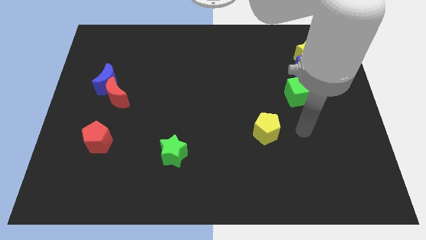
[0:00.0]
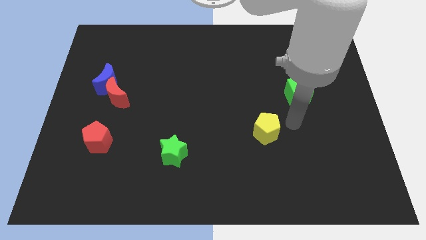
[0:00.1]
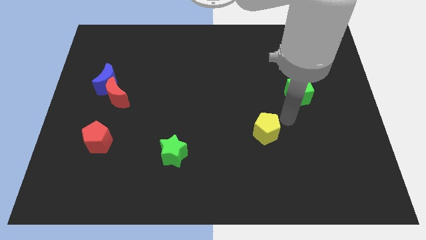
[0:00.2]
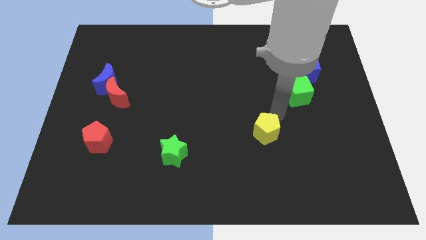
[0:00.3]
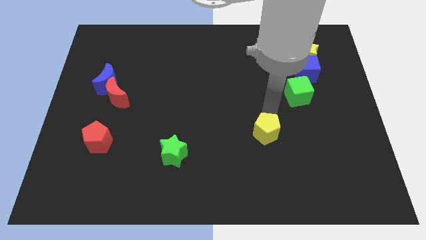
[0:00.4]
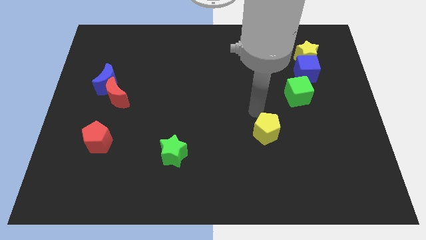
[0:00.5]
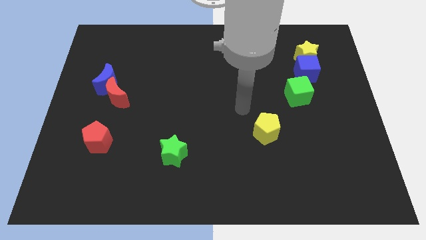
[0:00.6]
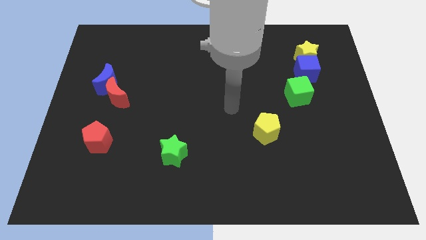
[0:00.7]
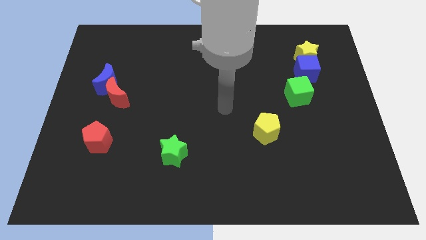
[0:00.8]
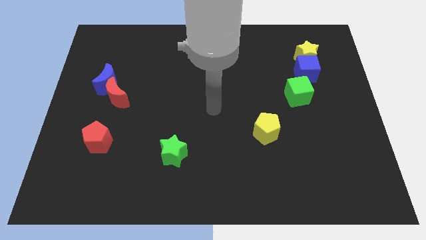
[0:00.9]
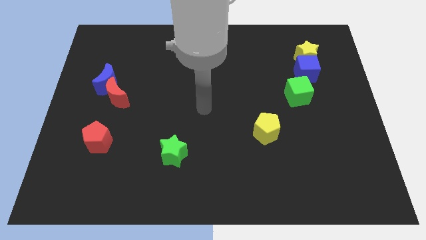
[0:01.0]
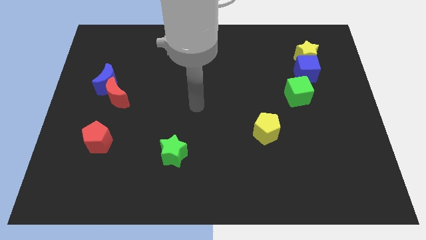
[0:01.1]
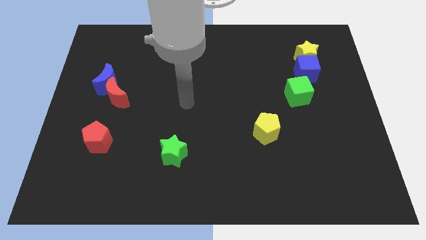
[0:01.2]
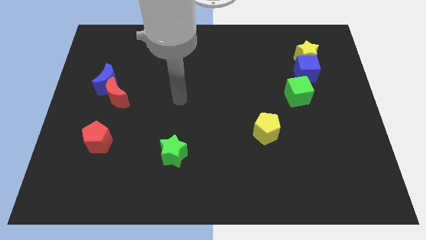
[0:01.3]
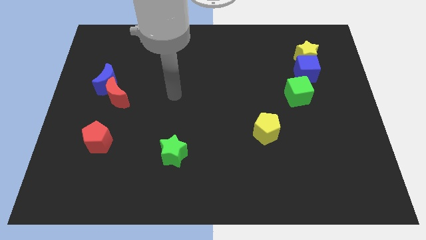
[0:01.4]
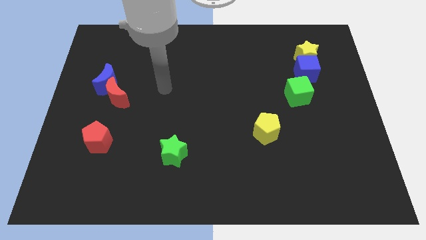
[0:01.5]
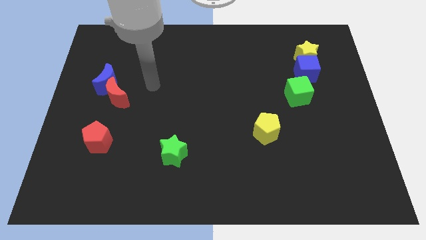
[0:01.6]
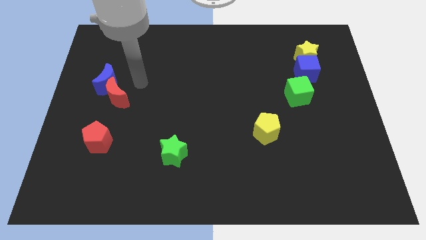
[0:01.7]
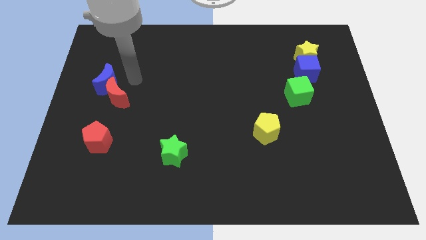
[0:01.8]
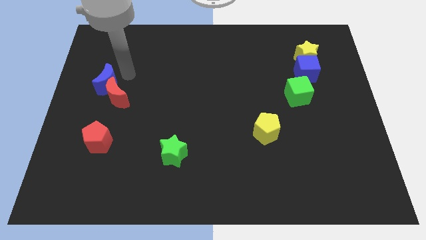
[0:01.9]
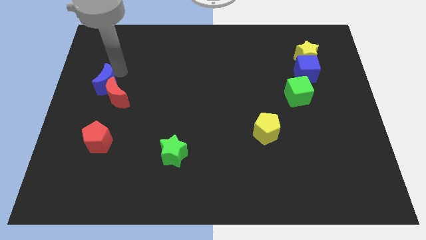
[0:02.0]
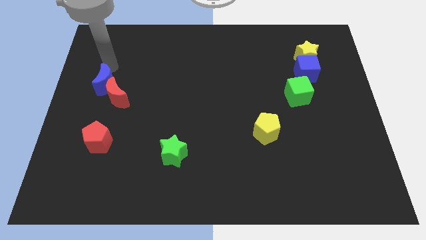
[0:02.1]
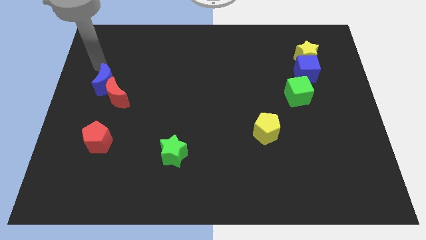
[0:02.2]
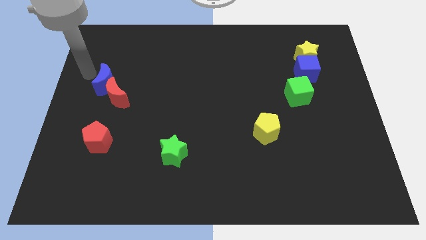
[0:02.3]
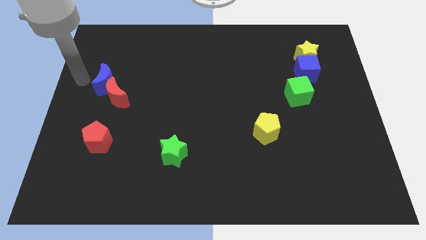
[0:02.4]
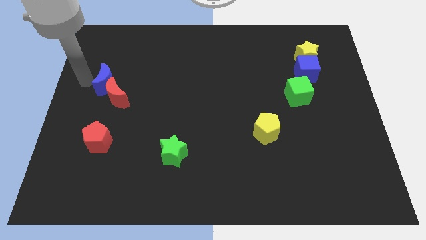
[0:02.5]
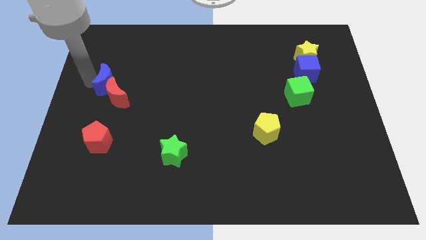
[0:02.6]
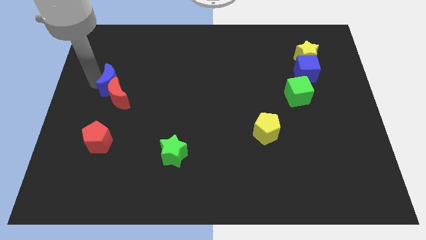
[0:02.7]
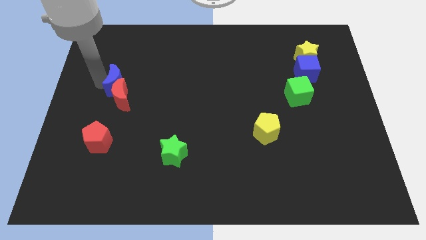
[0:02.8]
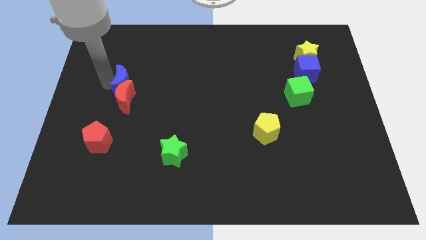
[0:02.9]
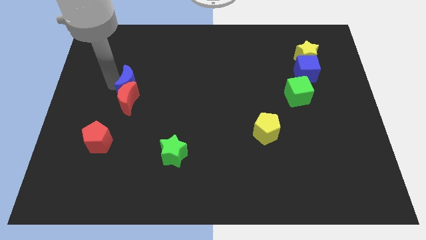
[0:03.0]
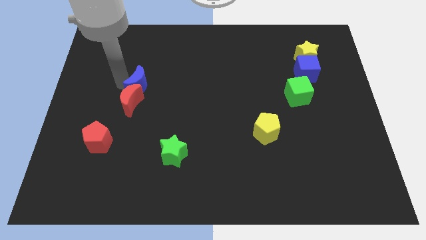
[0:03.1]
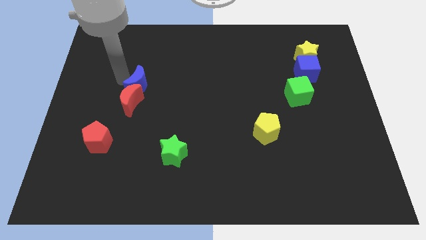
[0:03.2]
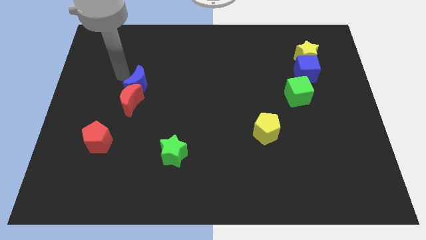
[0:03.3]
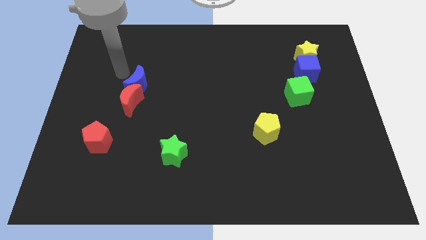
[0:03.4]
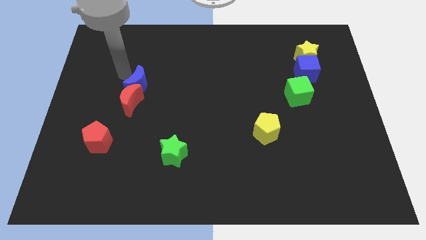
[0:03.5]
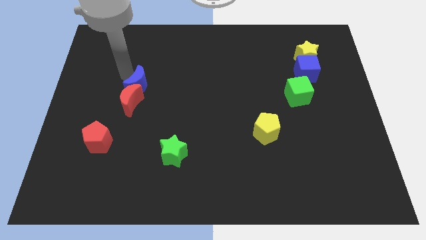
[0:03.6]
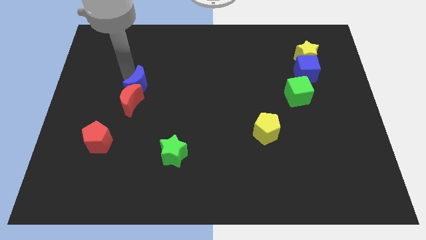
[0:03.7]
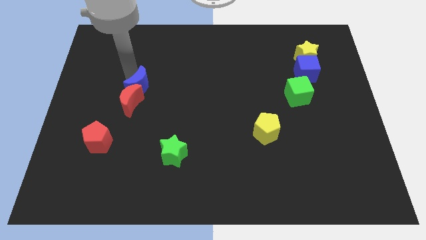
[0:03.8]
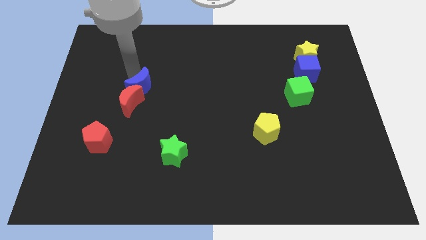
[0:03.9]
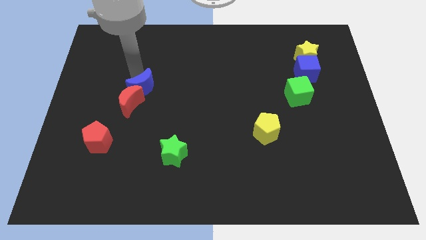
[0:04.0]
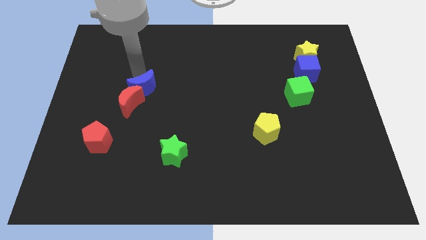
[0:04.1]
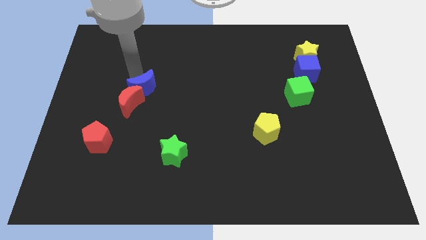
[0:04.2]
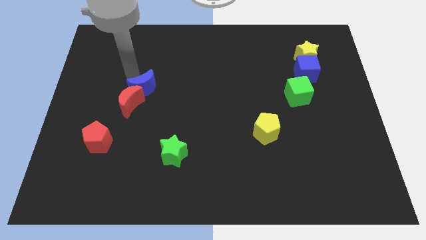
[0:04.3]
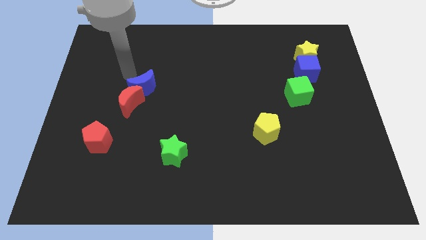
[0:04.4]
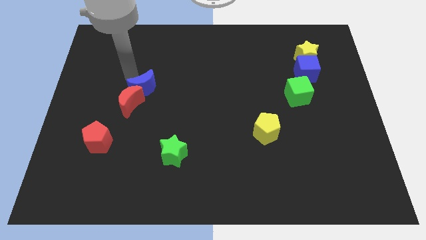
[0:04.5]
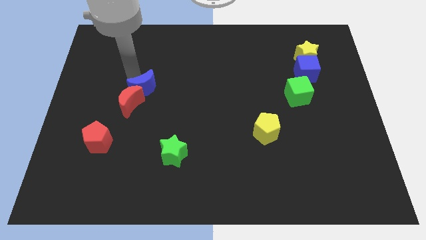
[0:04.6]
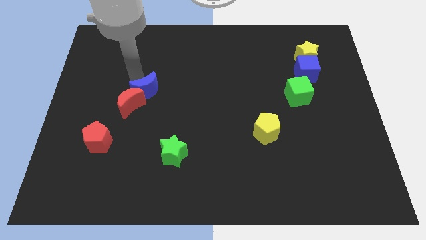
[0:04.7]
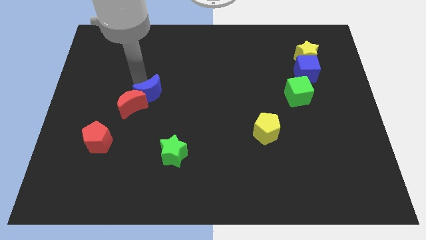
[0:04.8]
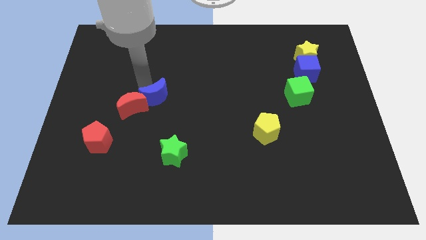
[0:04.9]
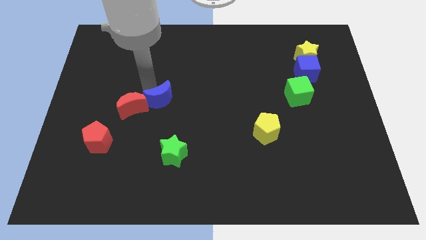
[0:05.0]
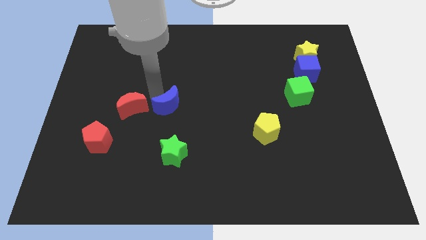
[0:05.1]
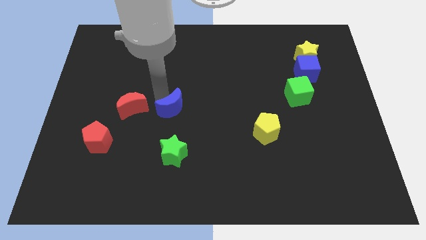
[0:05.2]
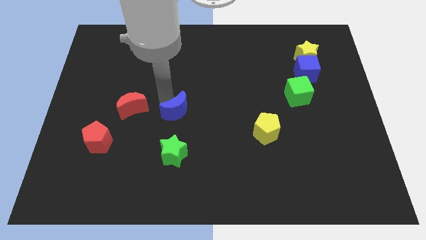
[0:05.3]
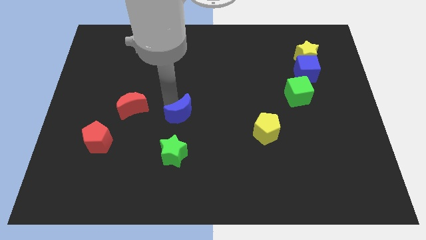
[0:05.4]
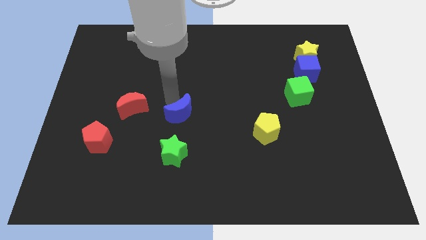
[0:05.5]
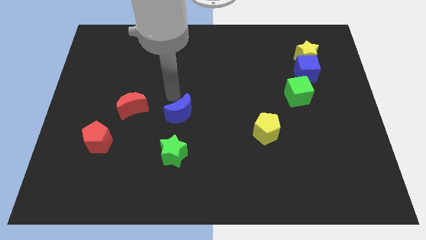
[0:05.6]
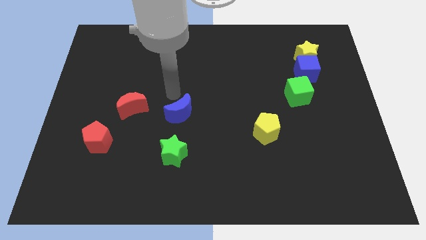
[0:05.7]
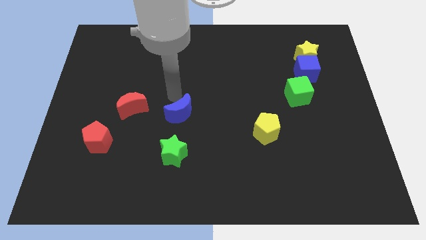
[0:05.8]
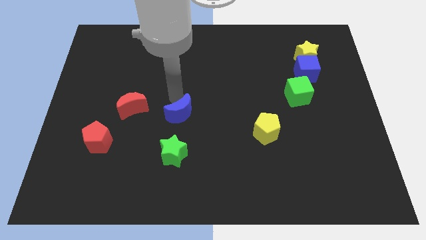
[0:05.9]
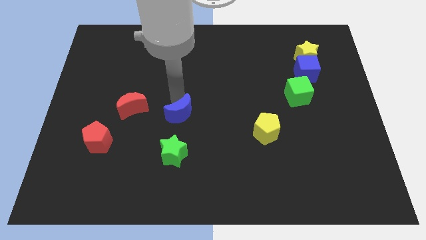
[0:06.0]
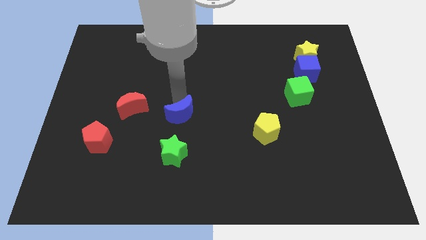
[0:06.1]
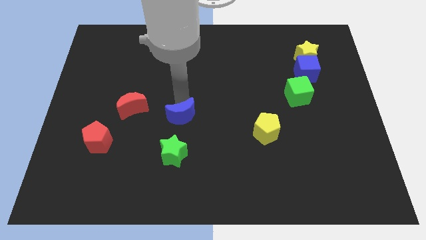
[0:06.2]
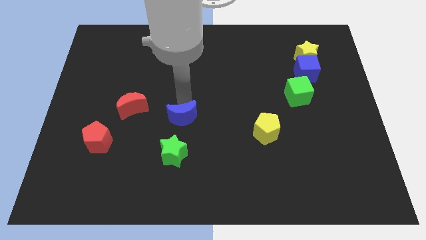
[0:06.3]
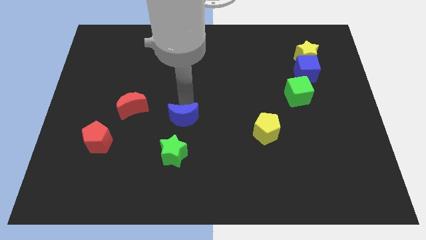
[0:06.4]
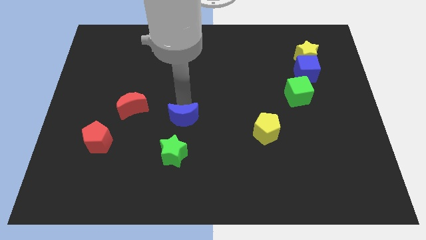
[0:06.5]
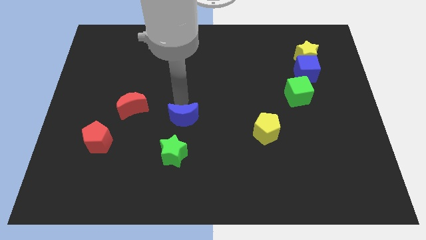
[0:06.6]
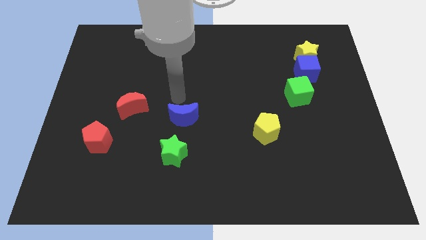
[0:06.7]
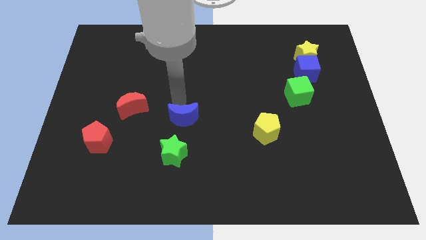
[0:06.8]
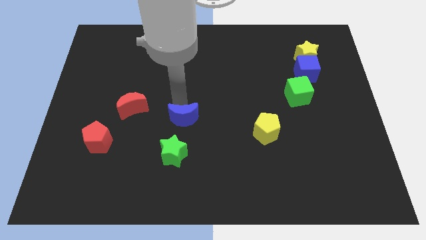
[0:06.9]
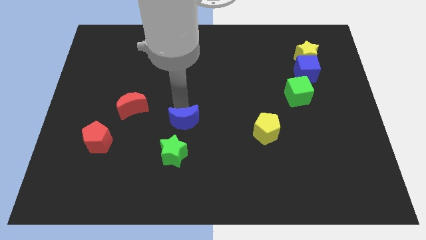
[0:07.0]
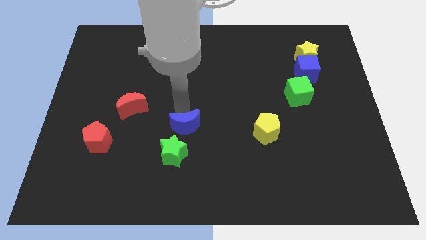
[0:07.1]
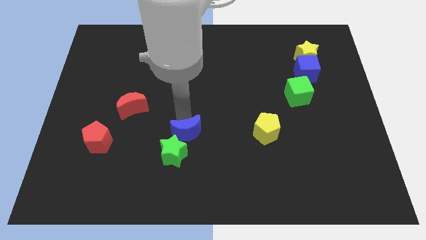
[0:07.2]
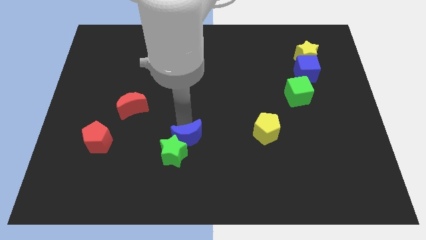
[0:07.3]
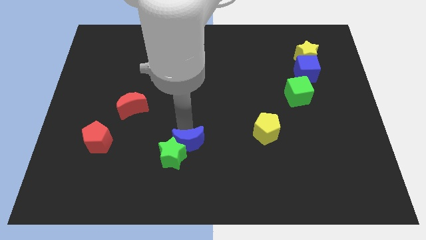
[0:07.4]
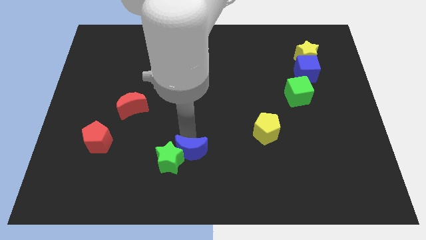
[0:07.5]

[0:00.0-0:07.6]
push the blue moon diagonally down and to the right of the green star
